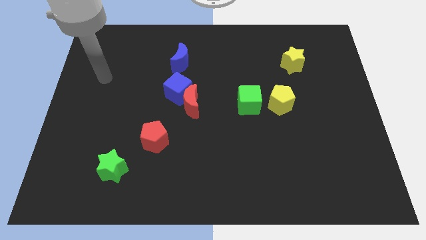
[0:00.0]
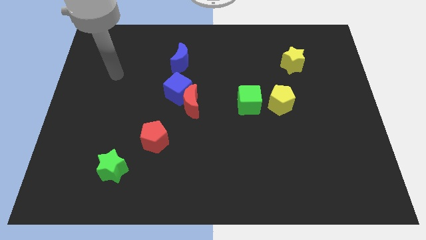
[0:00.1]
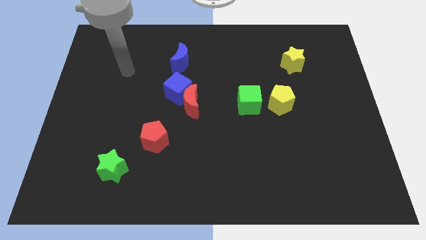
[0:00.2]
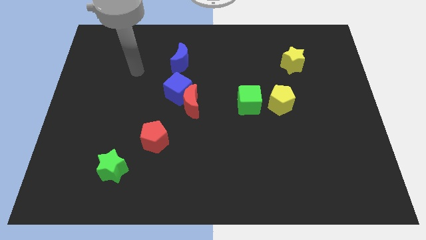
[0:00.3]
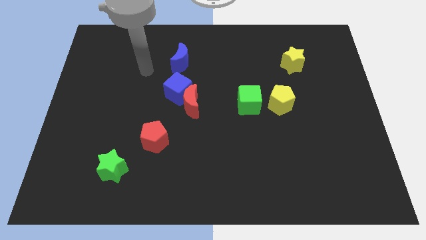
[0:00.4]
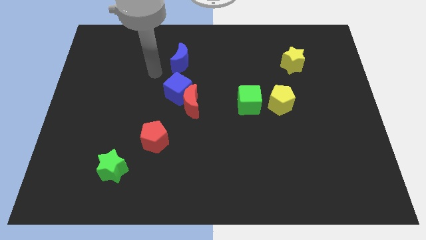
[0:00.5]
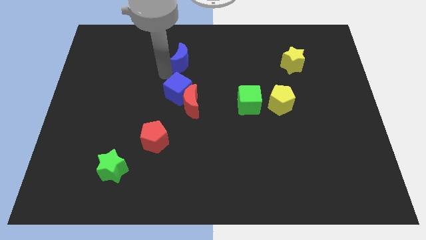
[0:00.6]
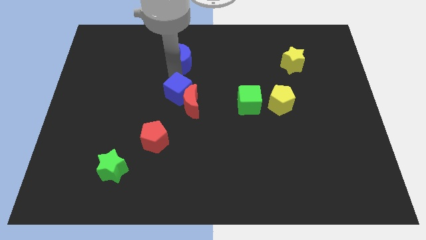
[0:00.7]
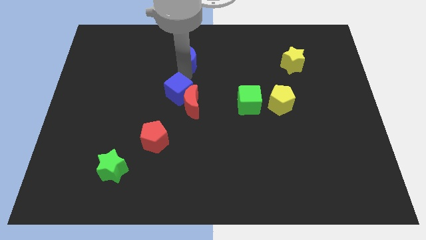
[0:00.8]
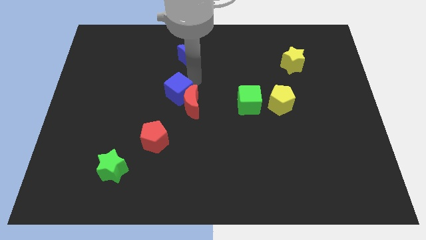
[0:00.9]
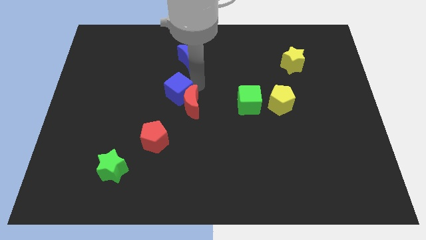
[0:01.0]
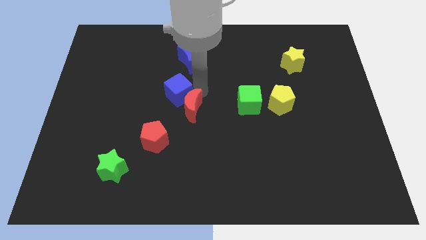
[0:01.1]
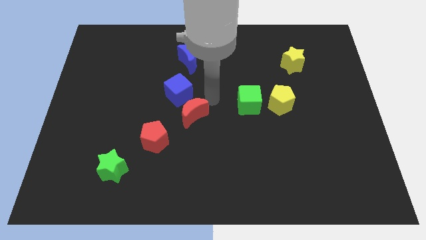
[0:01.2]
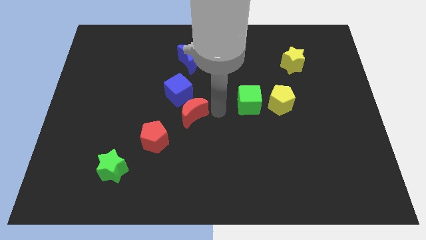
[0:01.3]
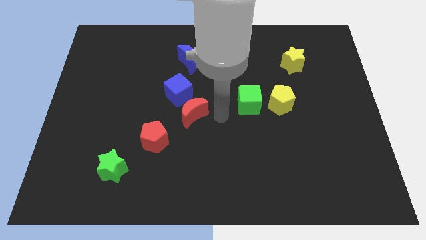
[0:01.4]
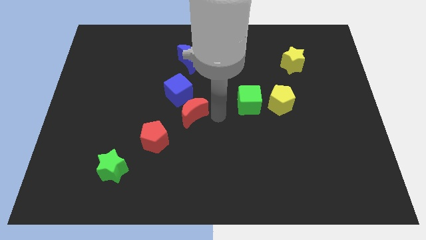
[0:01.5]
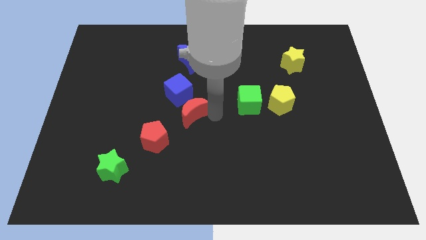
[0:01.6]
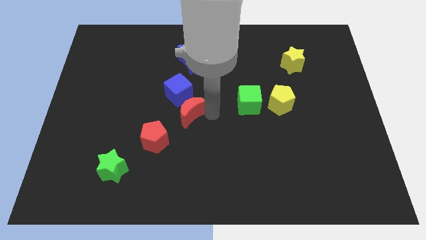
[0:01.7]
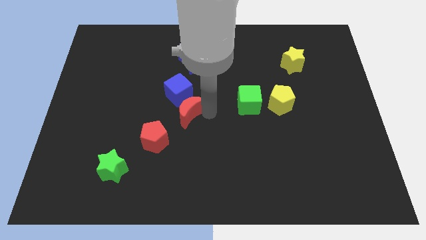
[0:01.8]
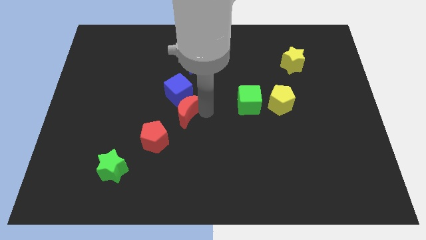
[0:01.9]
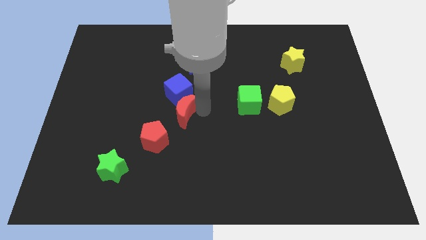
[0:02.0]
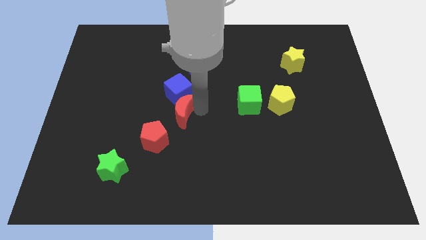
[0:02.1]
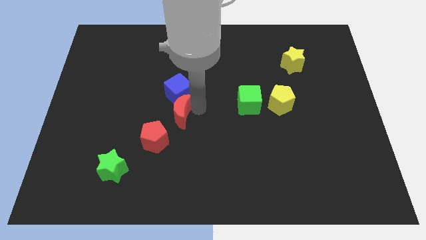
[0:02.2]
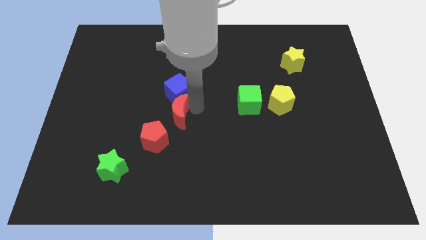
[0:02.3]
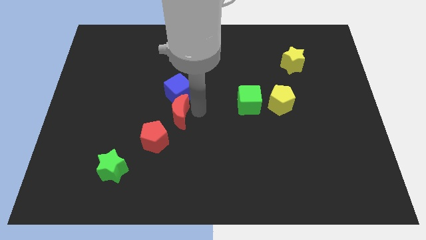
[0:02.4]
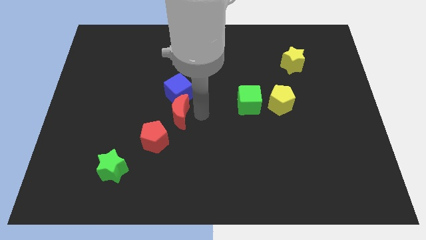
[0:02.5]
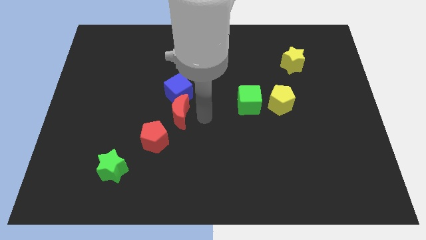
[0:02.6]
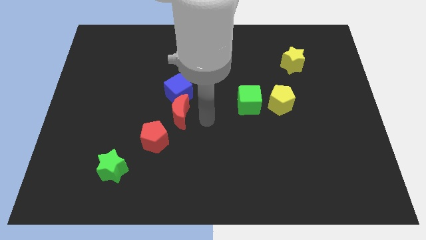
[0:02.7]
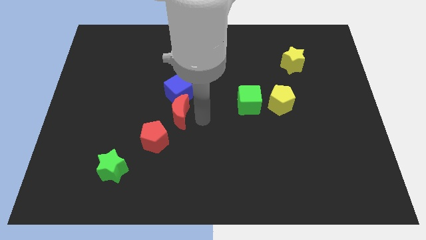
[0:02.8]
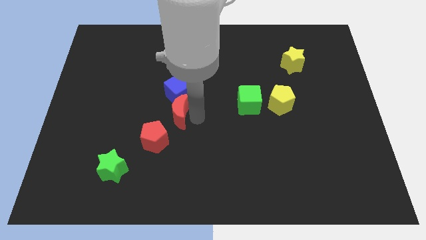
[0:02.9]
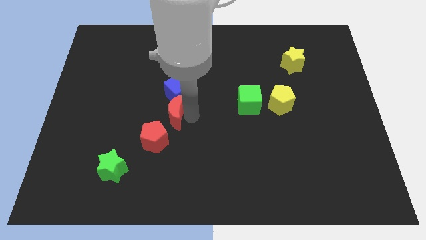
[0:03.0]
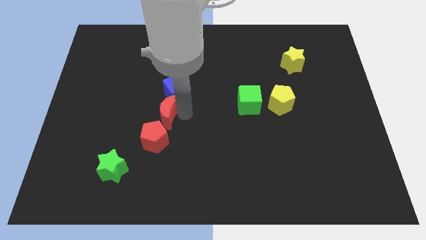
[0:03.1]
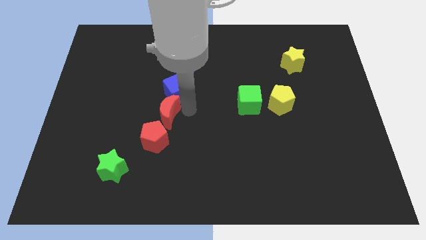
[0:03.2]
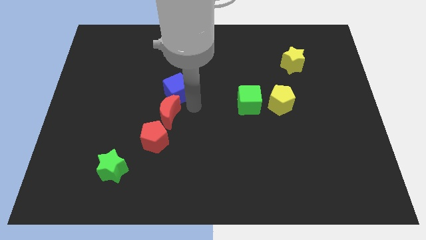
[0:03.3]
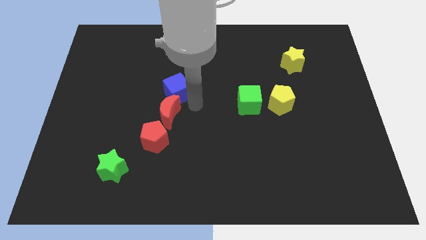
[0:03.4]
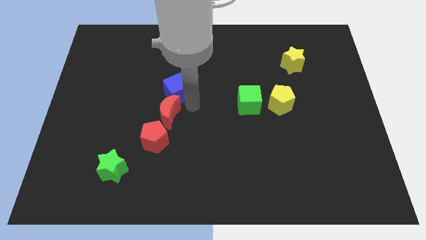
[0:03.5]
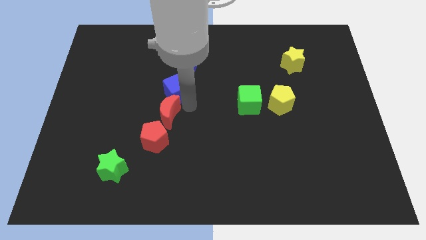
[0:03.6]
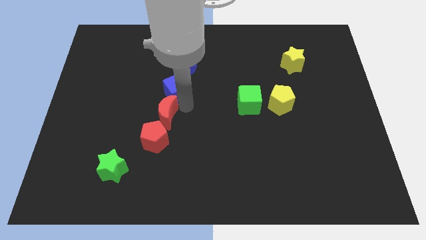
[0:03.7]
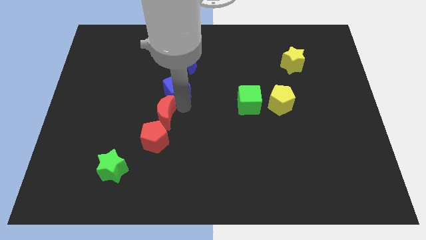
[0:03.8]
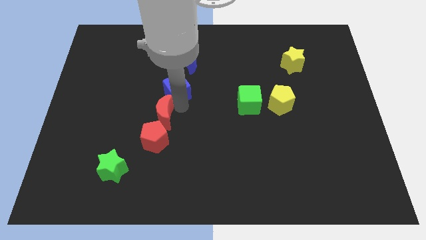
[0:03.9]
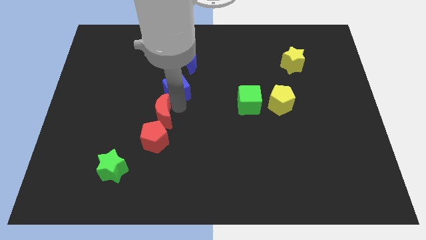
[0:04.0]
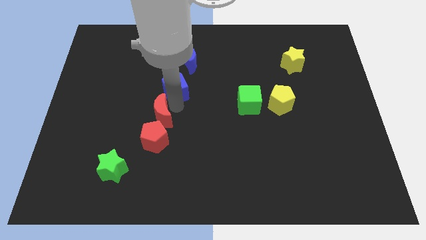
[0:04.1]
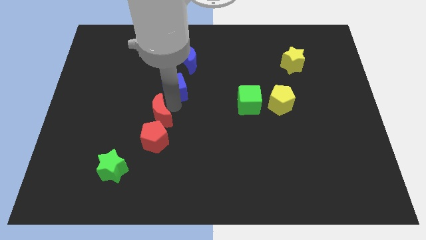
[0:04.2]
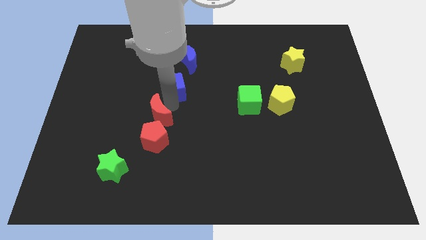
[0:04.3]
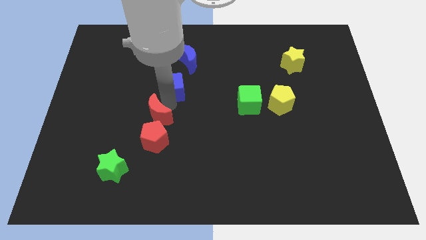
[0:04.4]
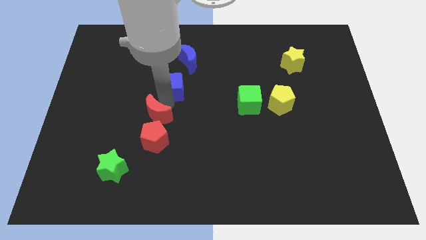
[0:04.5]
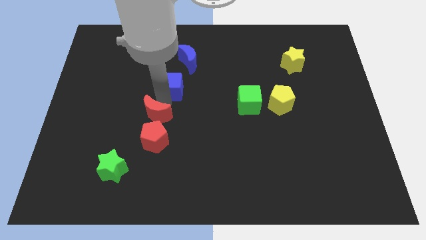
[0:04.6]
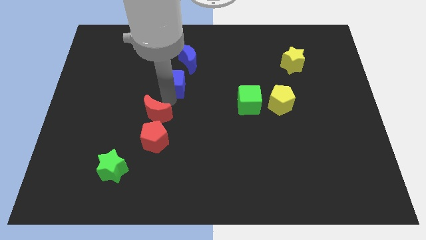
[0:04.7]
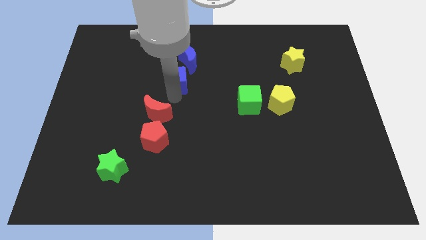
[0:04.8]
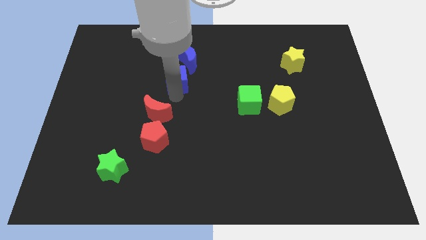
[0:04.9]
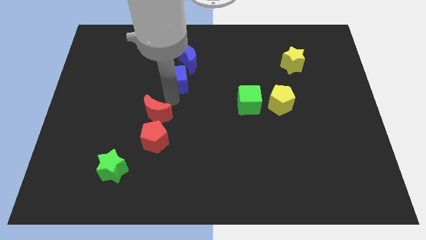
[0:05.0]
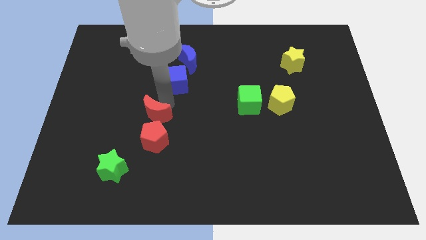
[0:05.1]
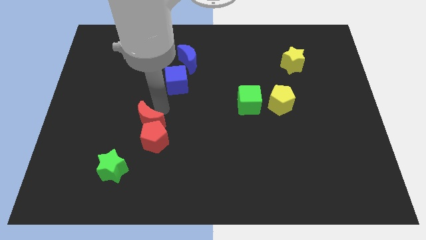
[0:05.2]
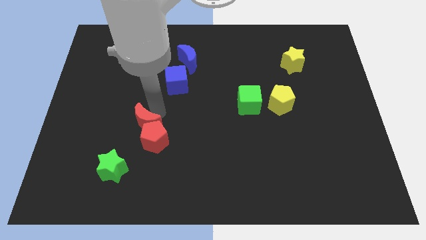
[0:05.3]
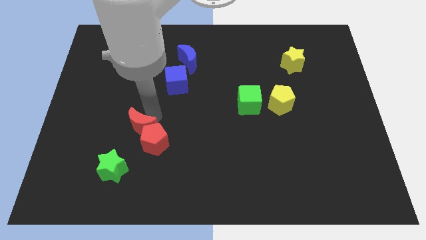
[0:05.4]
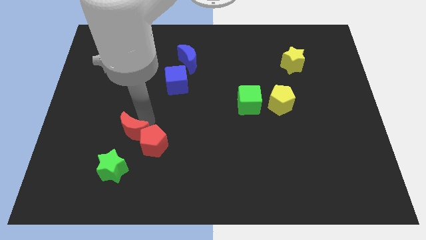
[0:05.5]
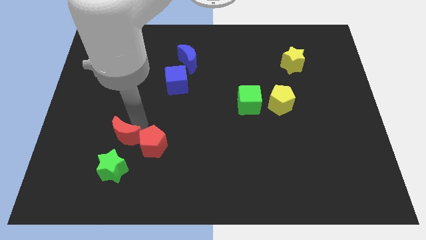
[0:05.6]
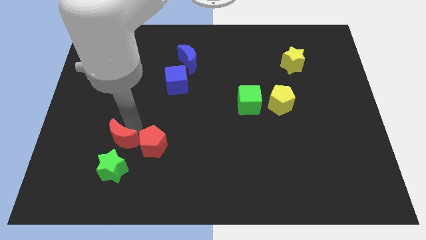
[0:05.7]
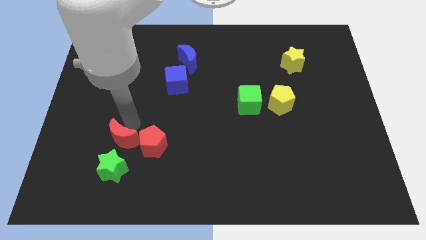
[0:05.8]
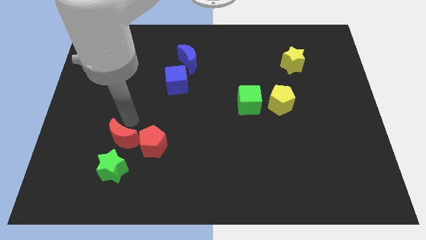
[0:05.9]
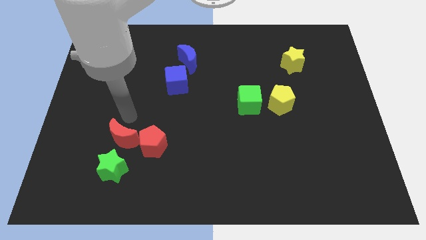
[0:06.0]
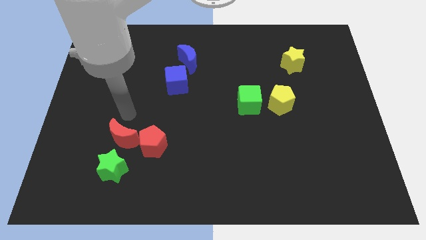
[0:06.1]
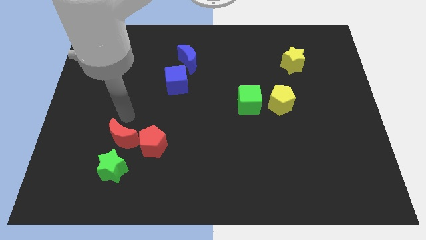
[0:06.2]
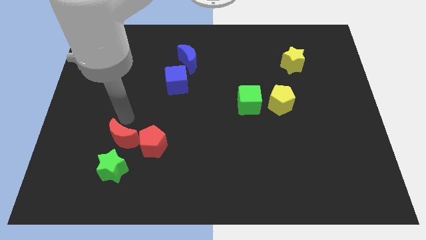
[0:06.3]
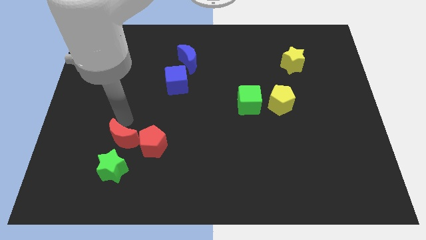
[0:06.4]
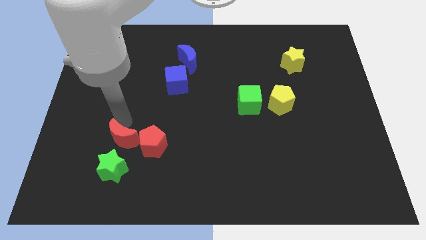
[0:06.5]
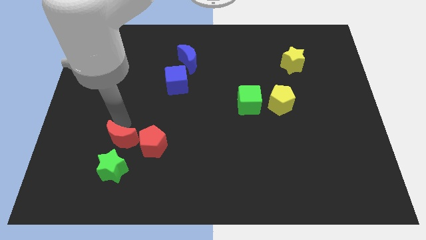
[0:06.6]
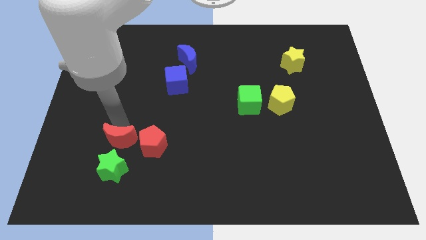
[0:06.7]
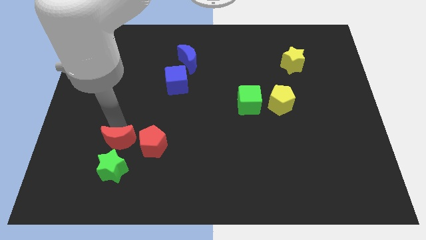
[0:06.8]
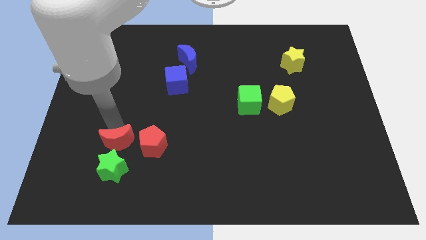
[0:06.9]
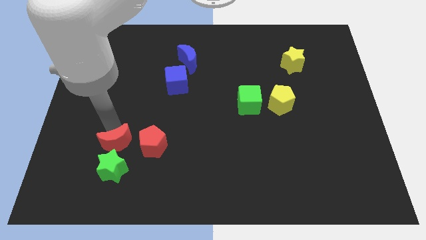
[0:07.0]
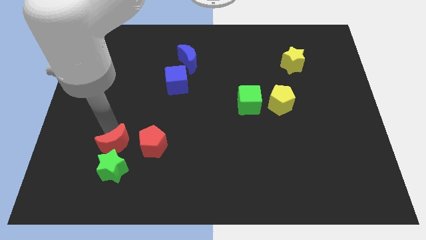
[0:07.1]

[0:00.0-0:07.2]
put the red moon towards the green star

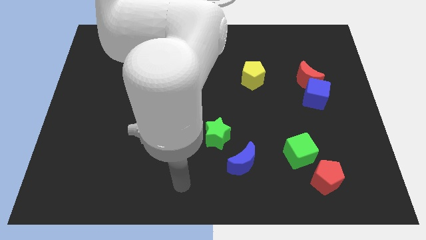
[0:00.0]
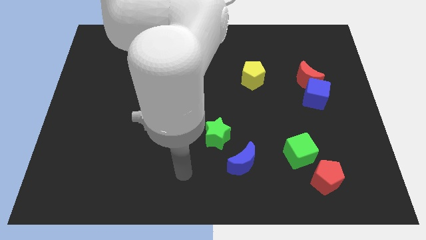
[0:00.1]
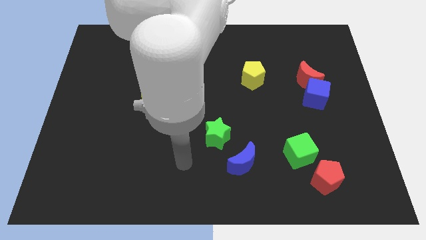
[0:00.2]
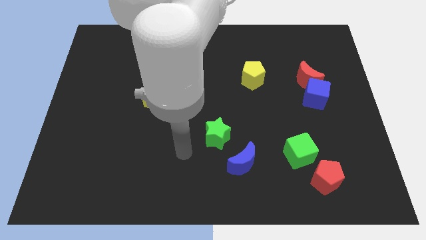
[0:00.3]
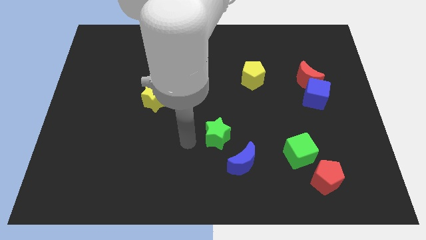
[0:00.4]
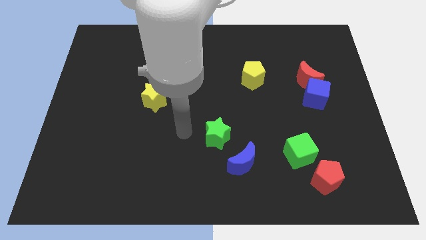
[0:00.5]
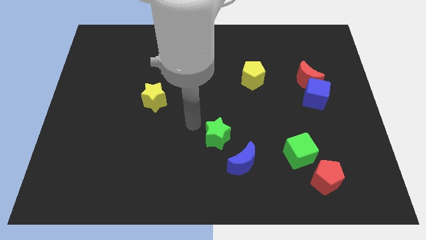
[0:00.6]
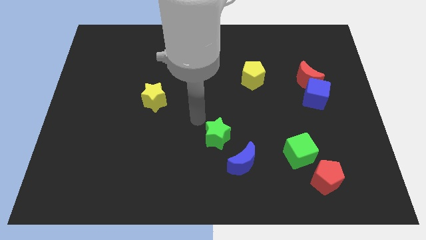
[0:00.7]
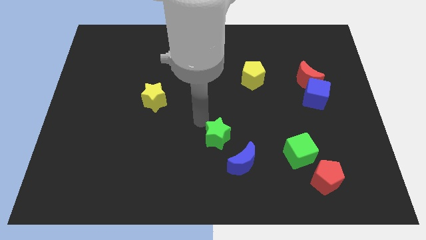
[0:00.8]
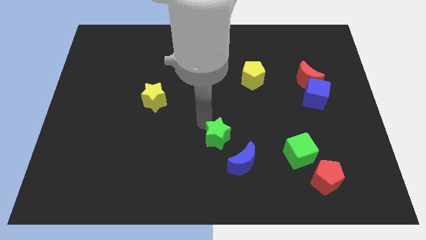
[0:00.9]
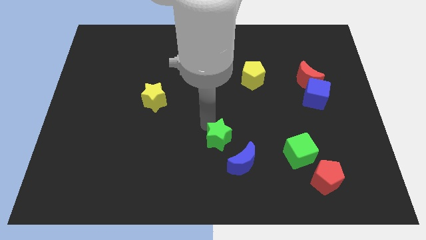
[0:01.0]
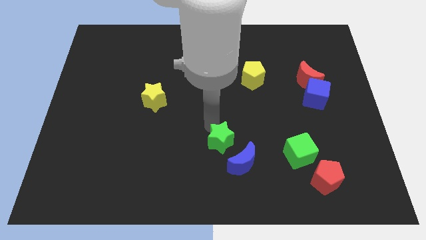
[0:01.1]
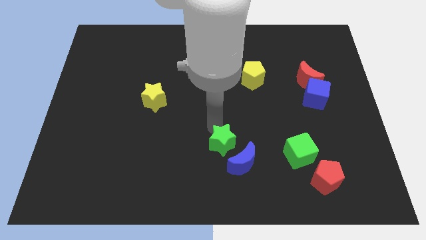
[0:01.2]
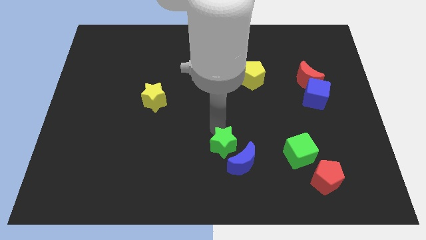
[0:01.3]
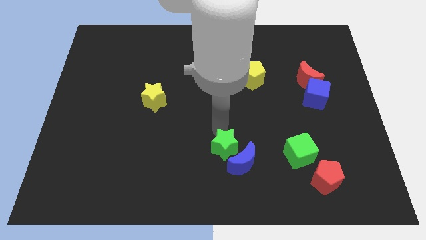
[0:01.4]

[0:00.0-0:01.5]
slide the green star next to the blue moon
